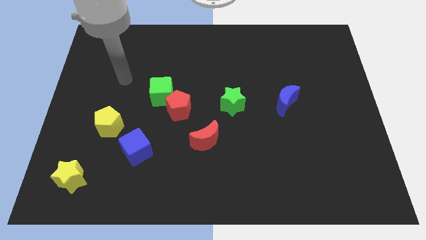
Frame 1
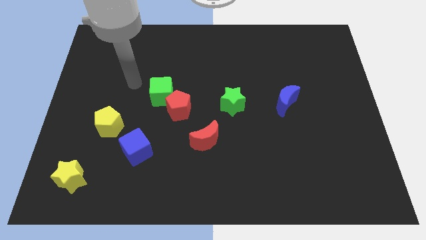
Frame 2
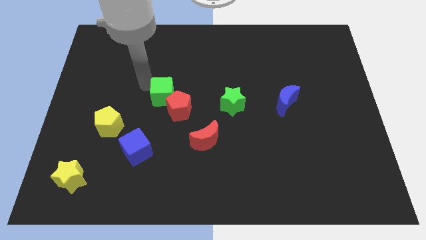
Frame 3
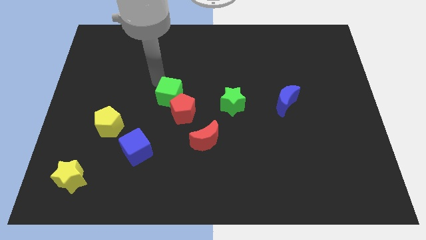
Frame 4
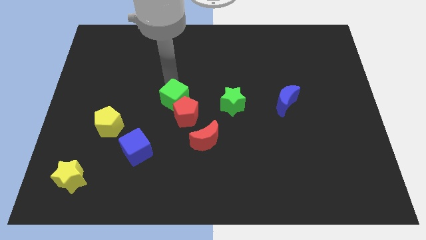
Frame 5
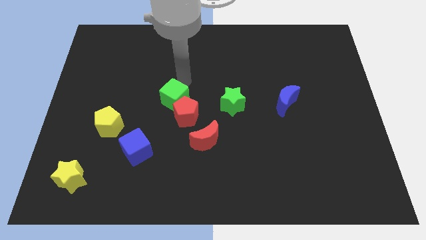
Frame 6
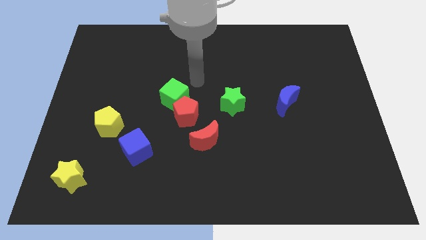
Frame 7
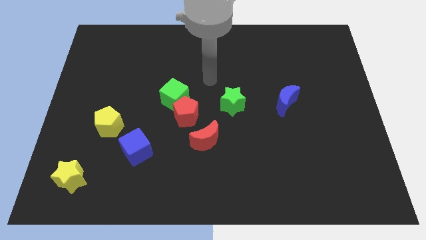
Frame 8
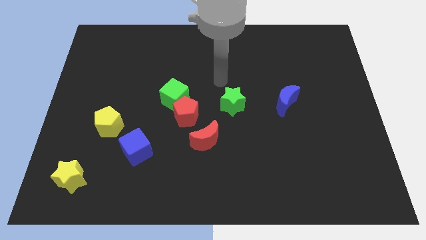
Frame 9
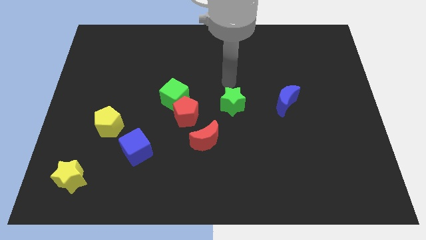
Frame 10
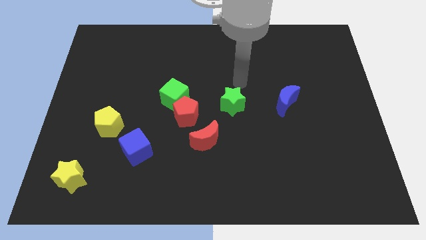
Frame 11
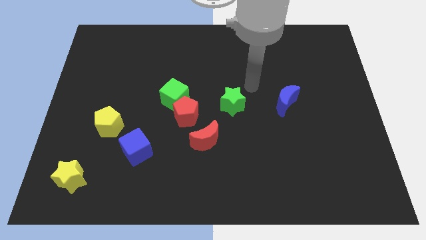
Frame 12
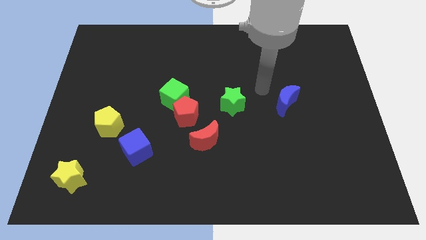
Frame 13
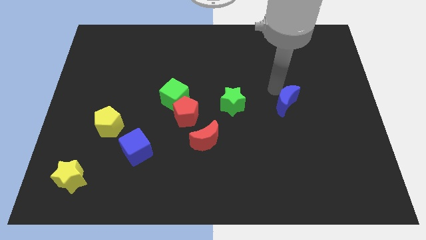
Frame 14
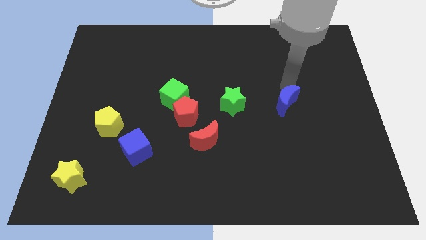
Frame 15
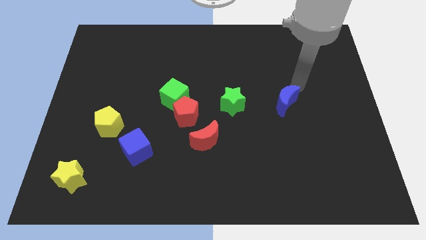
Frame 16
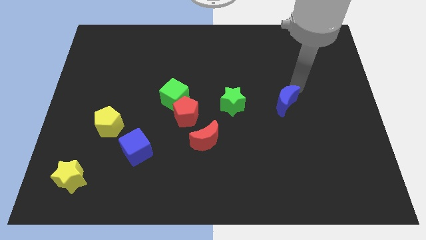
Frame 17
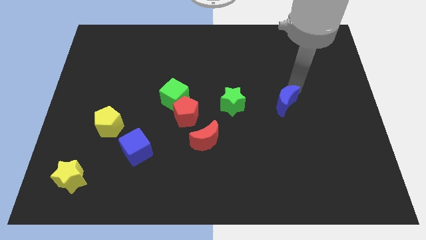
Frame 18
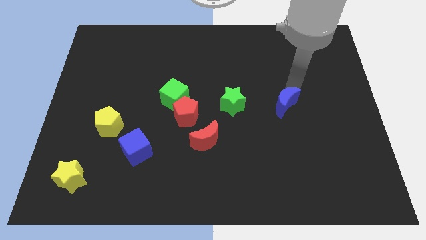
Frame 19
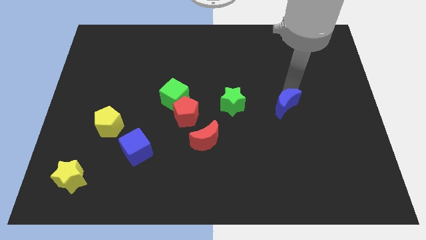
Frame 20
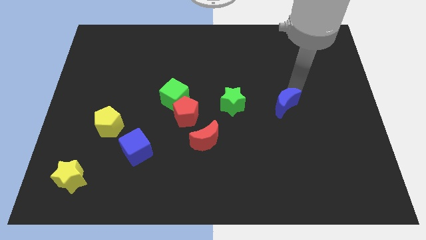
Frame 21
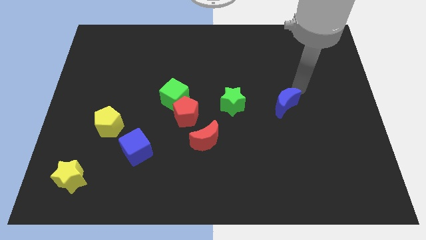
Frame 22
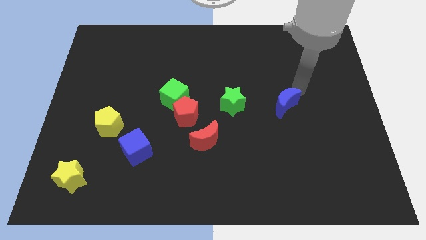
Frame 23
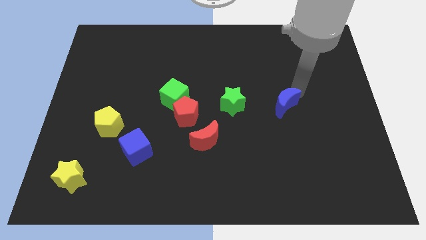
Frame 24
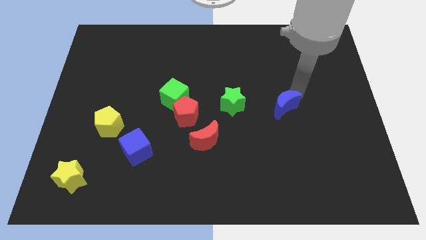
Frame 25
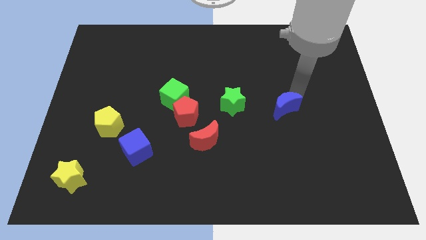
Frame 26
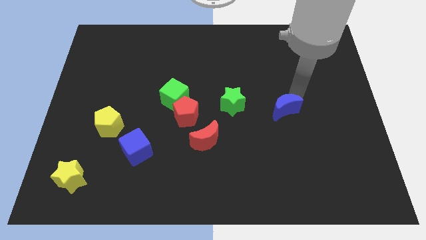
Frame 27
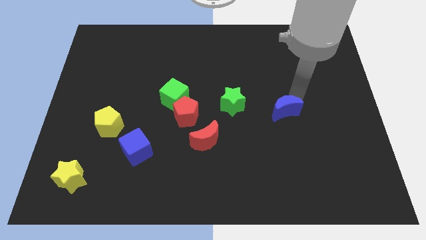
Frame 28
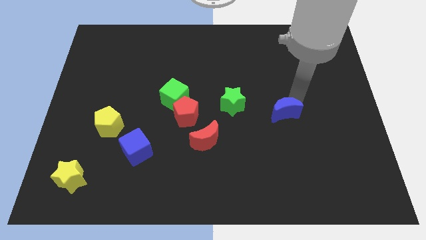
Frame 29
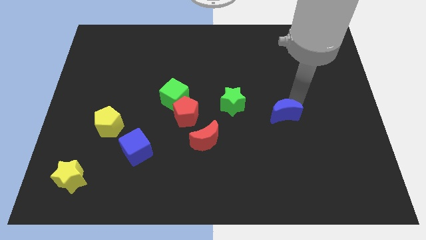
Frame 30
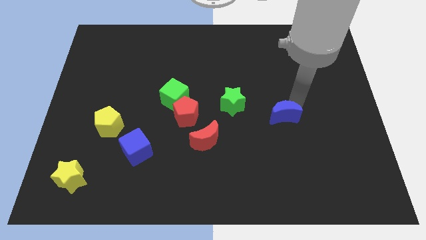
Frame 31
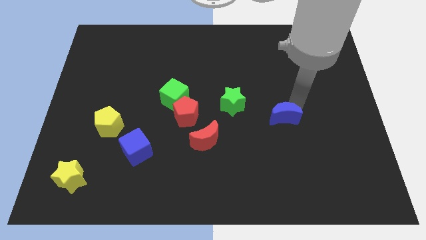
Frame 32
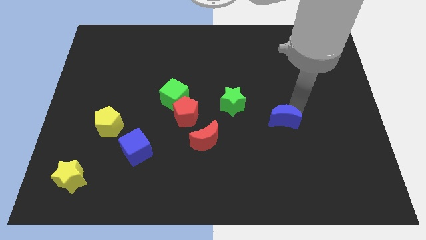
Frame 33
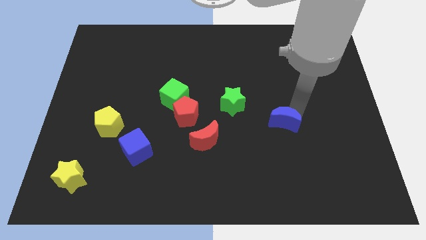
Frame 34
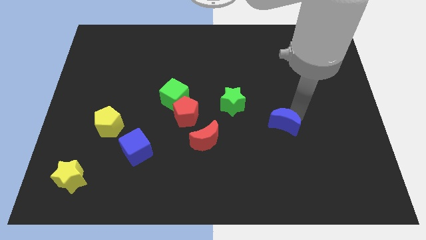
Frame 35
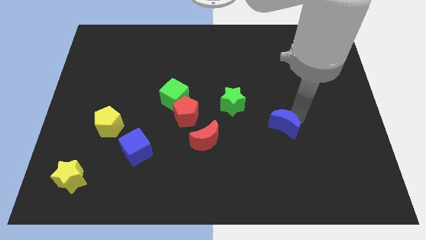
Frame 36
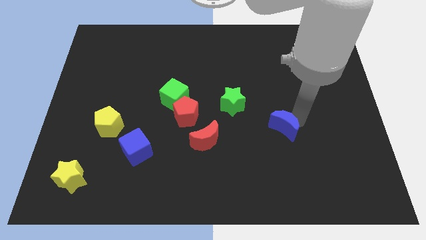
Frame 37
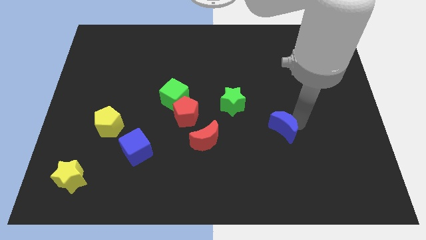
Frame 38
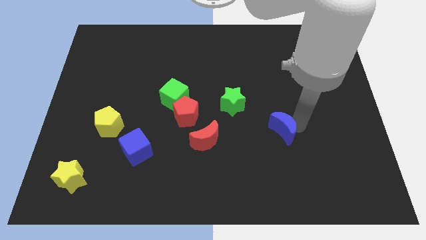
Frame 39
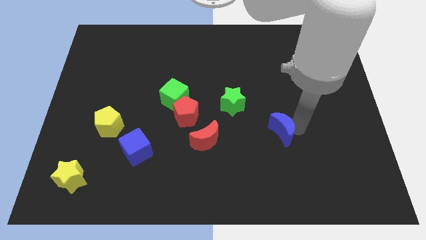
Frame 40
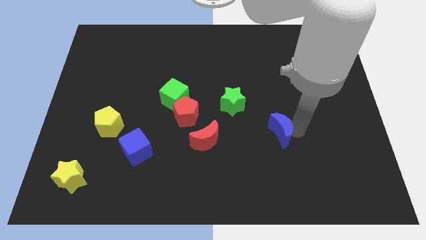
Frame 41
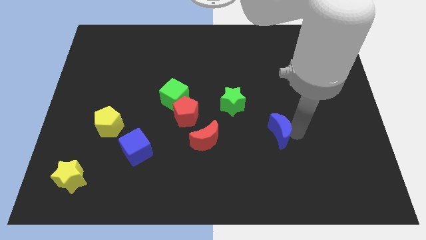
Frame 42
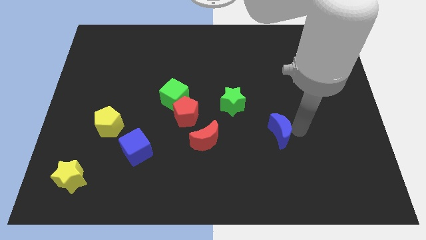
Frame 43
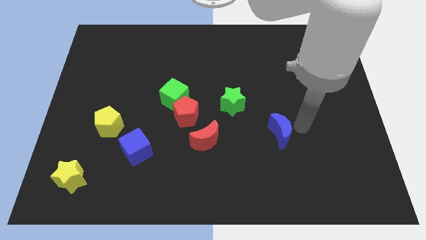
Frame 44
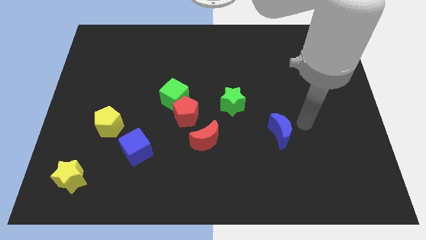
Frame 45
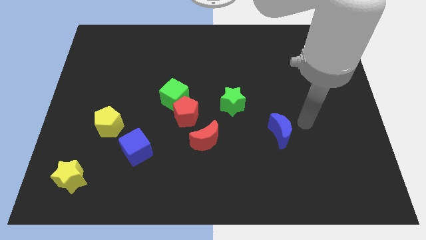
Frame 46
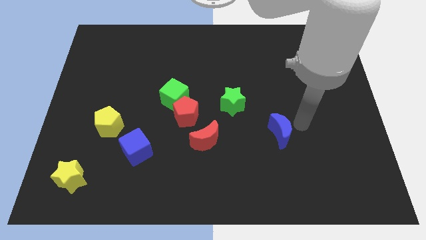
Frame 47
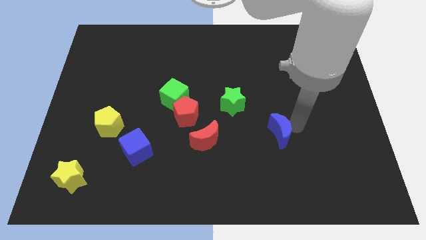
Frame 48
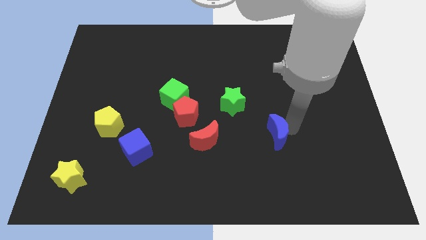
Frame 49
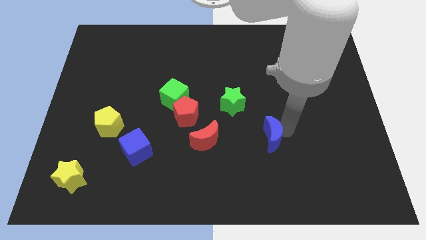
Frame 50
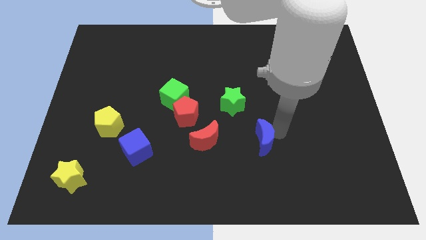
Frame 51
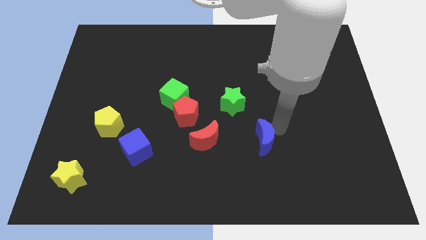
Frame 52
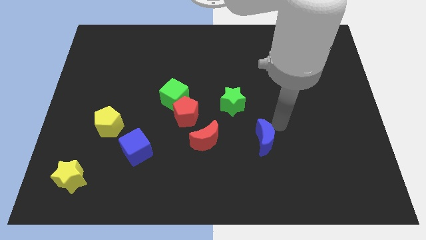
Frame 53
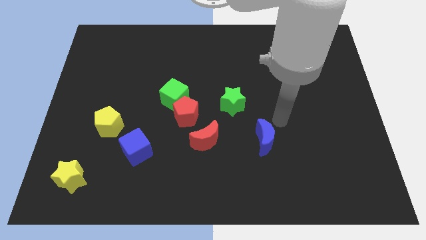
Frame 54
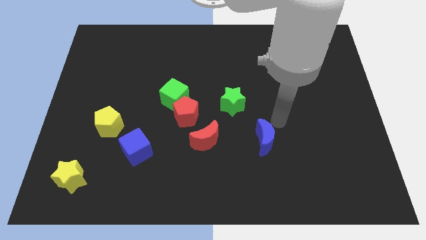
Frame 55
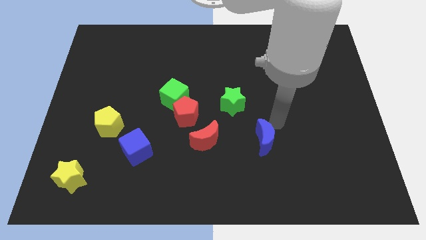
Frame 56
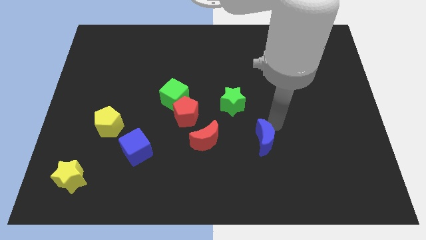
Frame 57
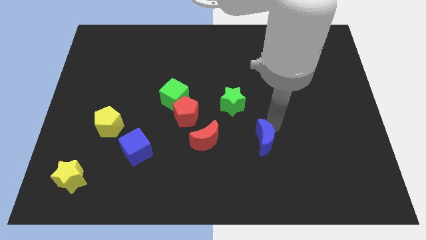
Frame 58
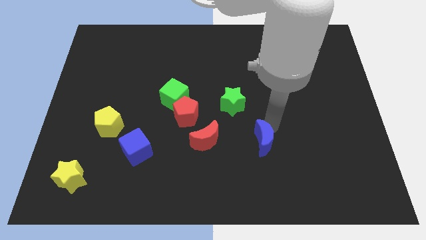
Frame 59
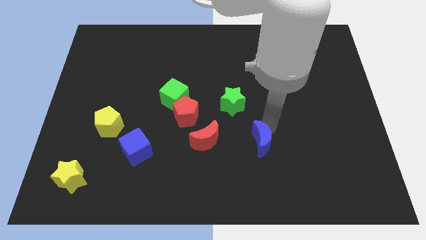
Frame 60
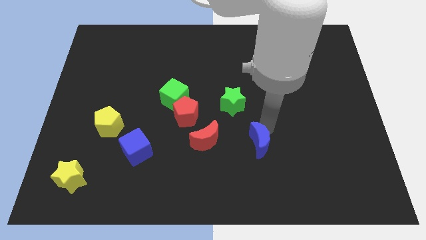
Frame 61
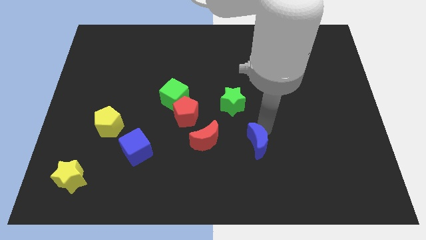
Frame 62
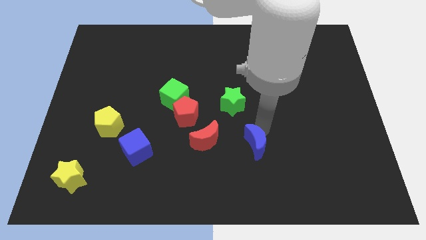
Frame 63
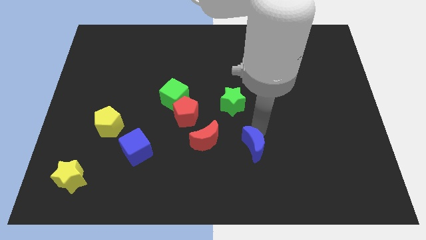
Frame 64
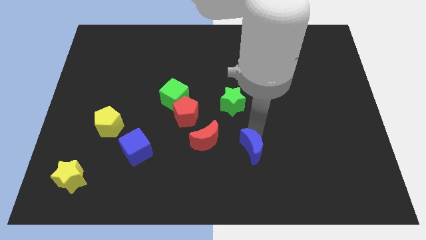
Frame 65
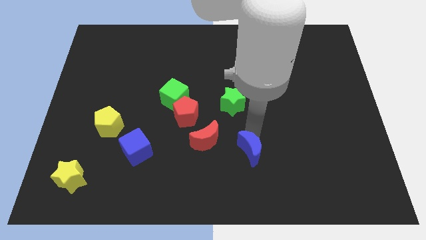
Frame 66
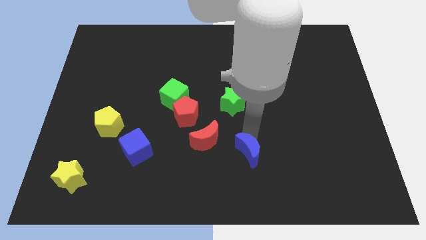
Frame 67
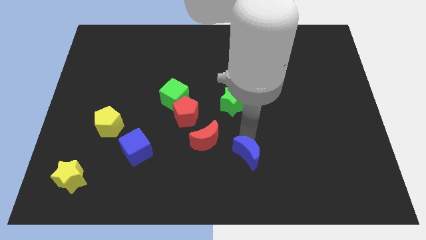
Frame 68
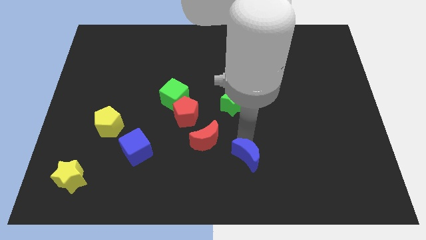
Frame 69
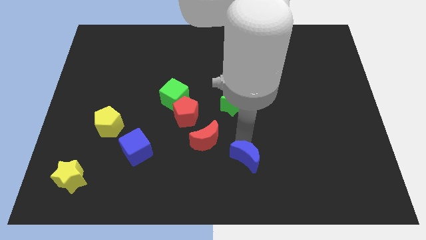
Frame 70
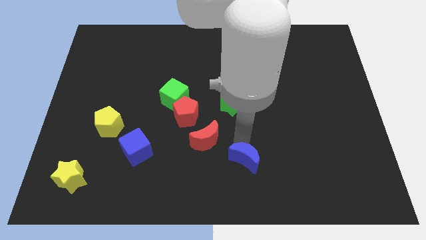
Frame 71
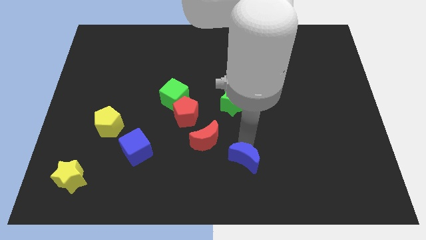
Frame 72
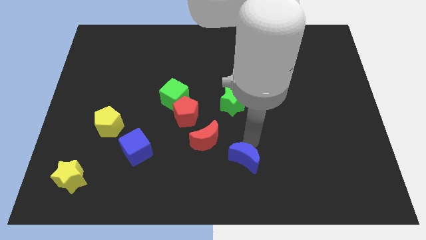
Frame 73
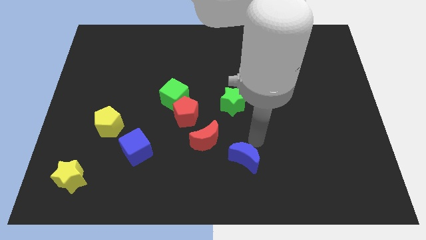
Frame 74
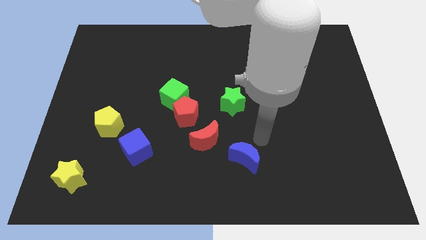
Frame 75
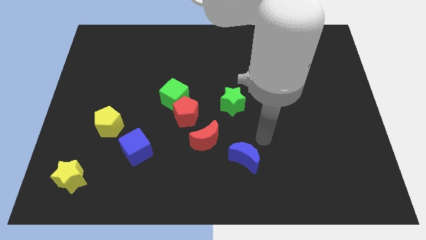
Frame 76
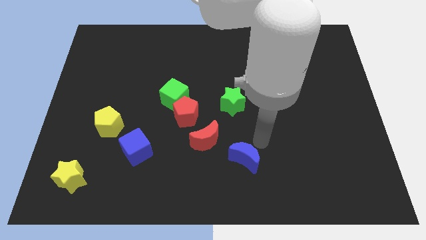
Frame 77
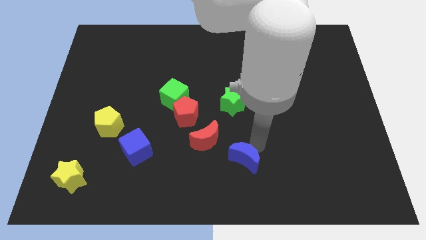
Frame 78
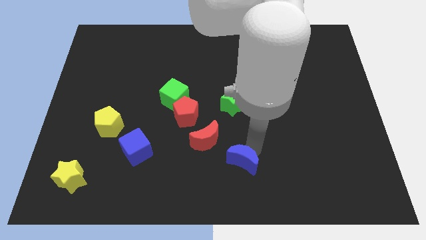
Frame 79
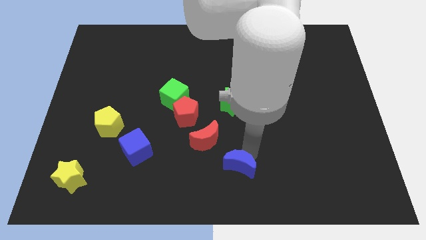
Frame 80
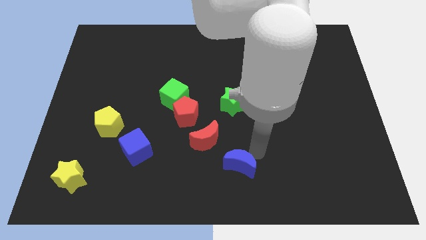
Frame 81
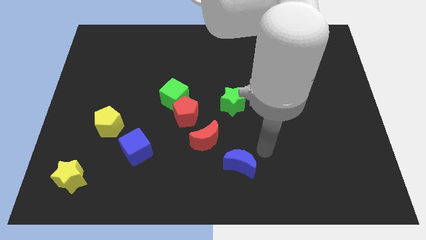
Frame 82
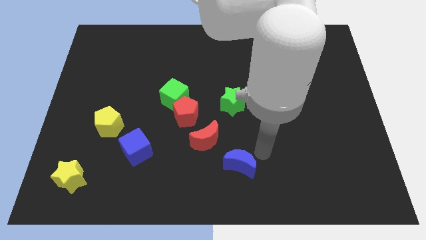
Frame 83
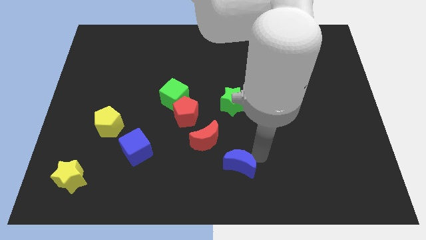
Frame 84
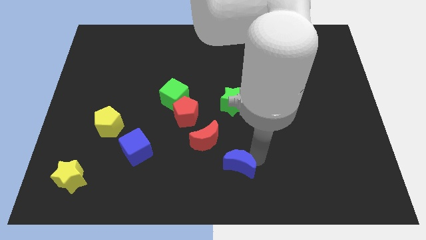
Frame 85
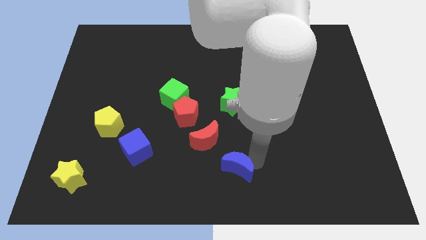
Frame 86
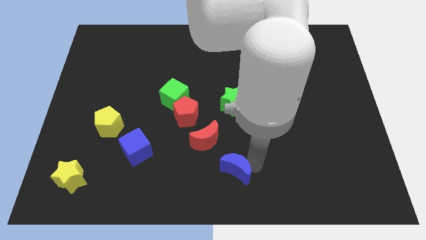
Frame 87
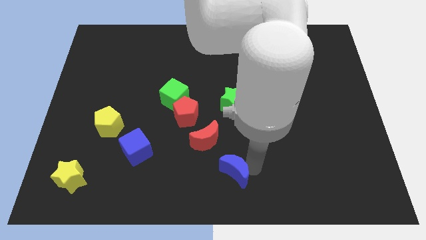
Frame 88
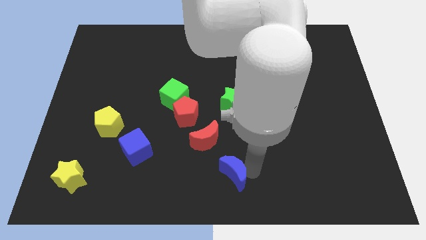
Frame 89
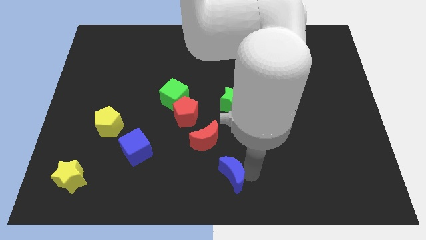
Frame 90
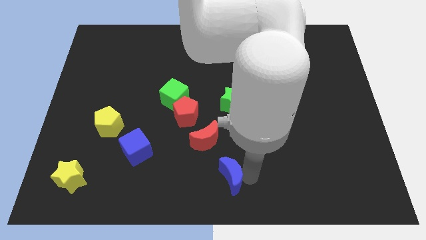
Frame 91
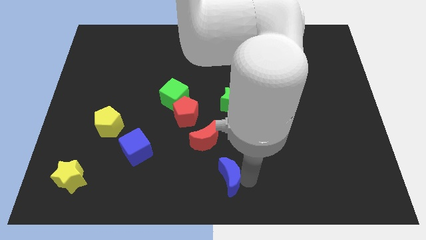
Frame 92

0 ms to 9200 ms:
slide the blue moon to the bottom side of the red moon
